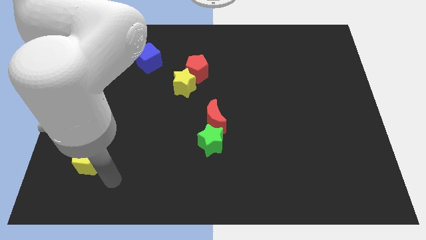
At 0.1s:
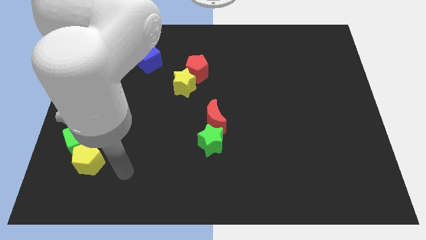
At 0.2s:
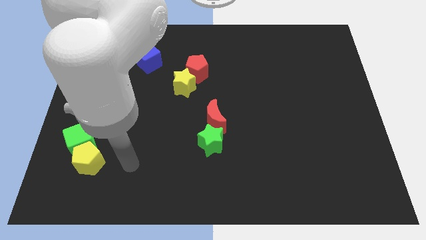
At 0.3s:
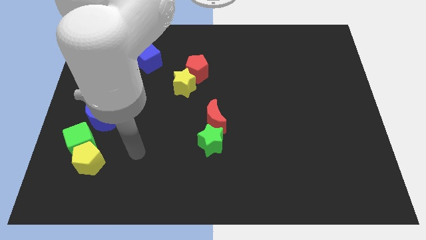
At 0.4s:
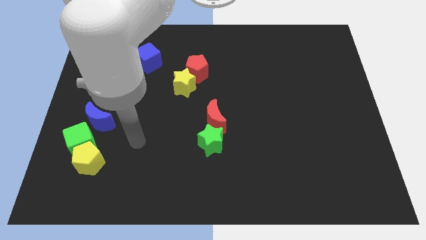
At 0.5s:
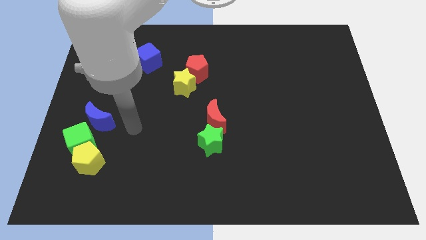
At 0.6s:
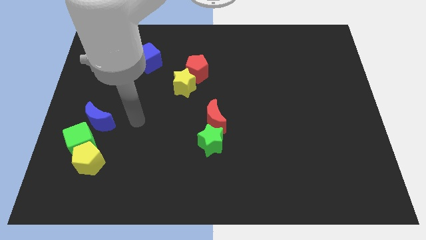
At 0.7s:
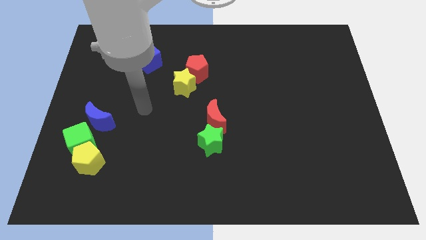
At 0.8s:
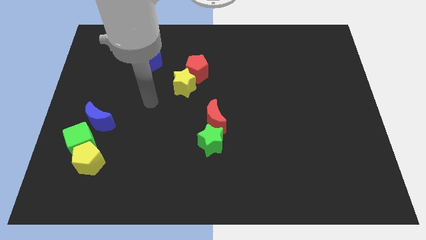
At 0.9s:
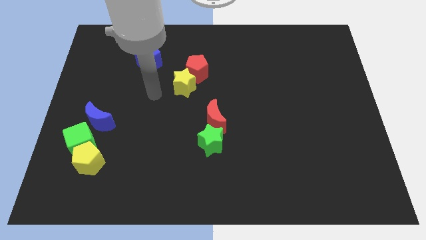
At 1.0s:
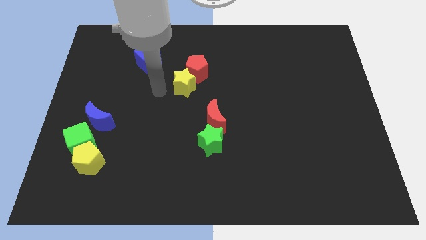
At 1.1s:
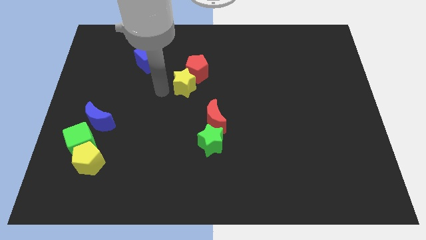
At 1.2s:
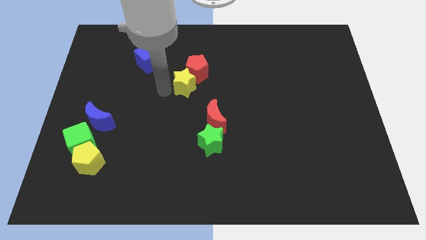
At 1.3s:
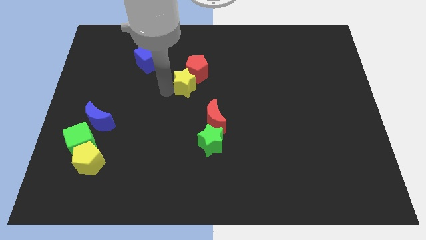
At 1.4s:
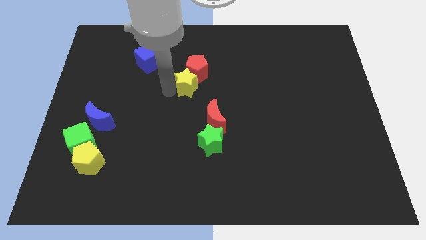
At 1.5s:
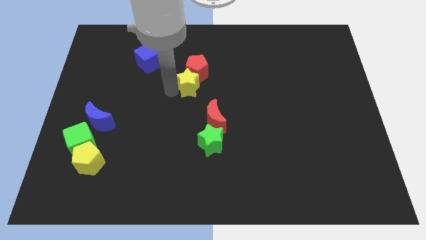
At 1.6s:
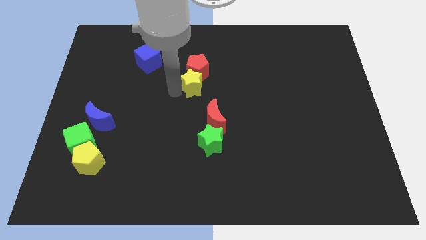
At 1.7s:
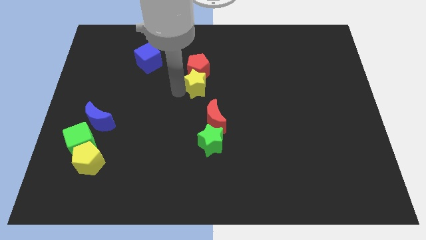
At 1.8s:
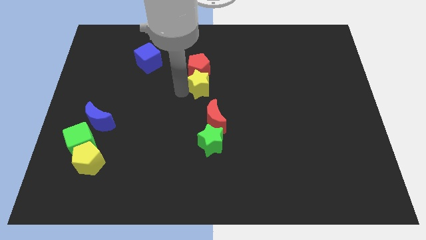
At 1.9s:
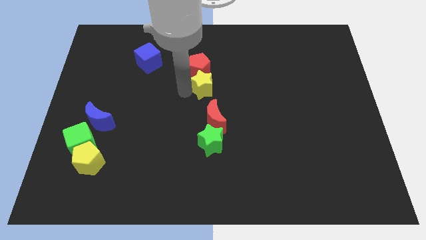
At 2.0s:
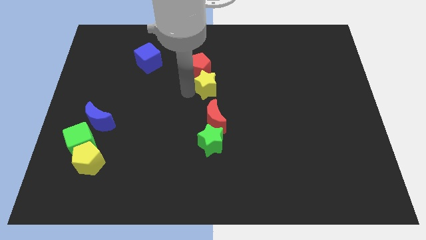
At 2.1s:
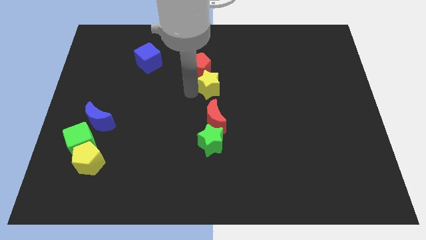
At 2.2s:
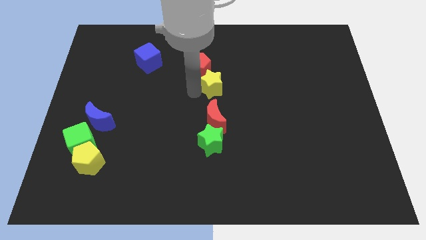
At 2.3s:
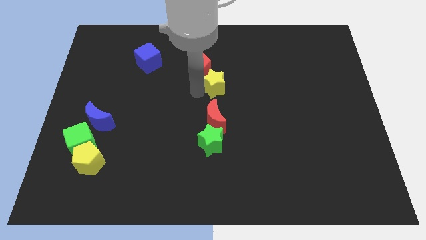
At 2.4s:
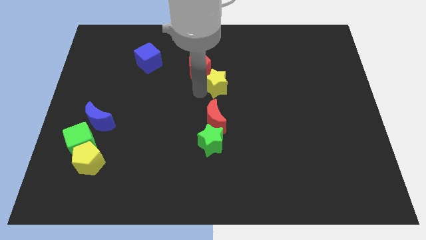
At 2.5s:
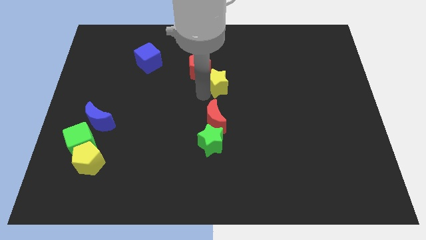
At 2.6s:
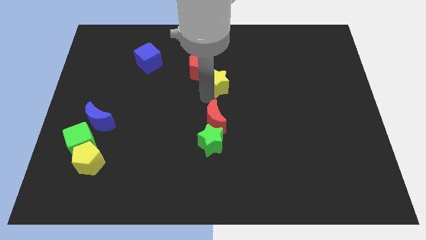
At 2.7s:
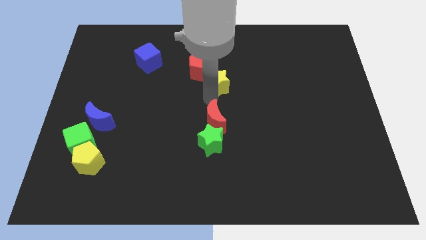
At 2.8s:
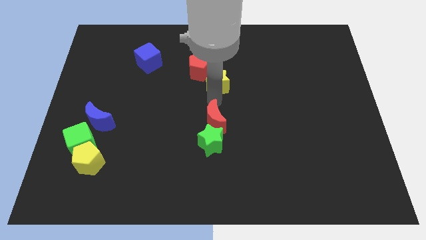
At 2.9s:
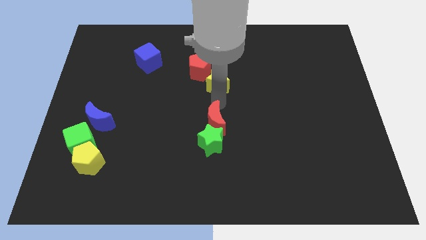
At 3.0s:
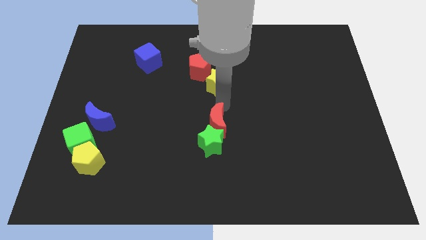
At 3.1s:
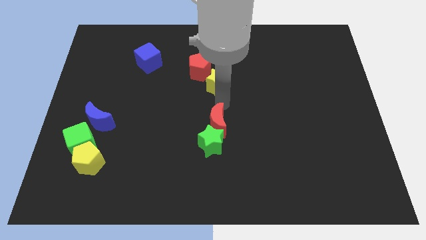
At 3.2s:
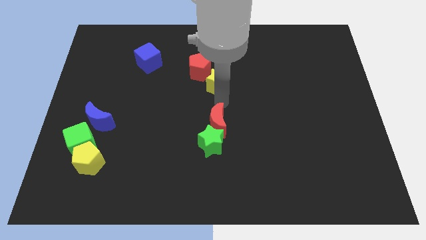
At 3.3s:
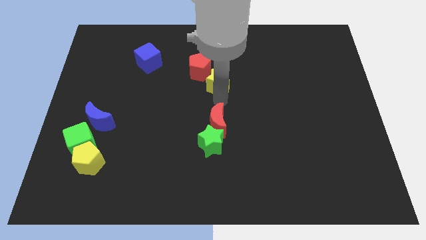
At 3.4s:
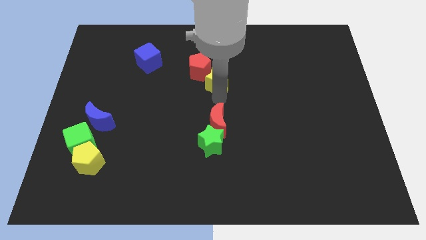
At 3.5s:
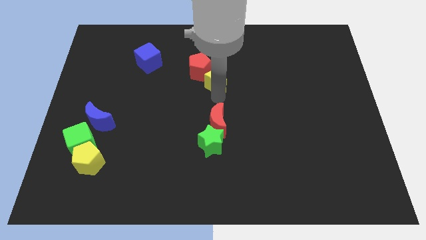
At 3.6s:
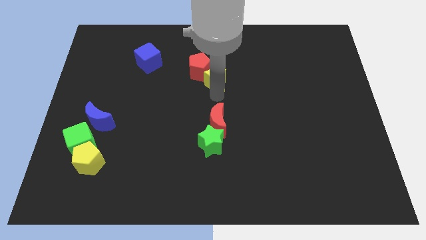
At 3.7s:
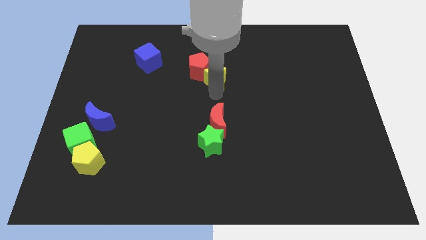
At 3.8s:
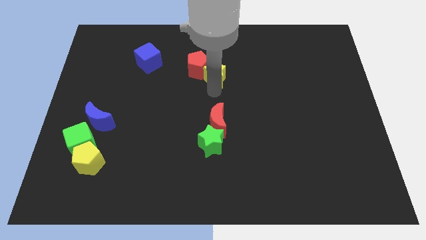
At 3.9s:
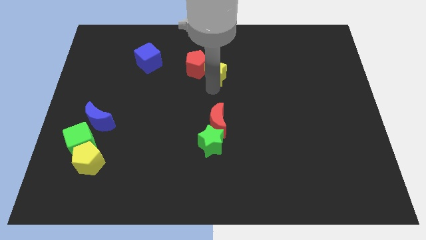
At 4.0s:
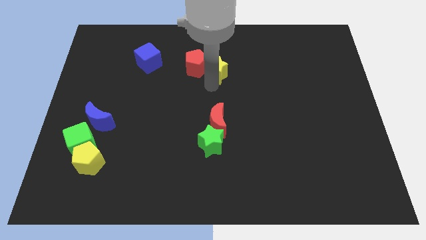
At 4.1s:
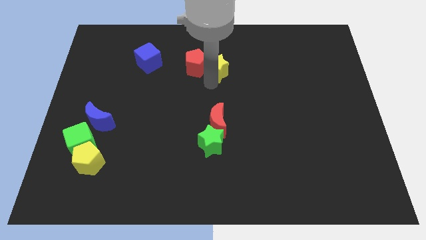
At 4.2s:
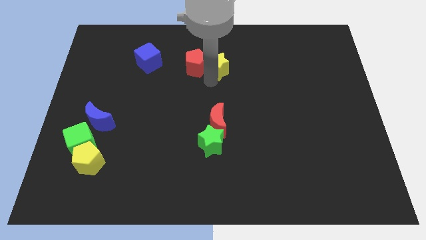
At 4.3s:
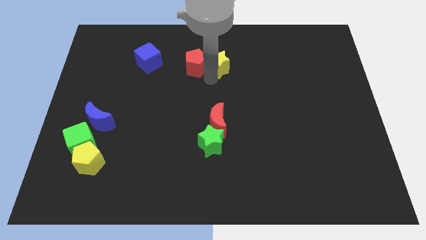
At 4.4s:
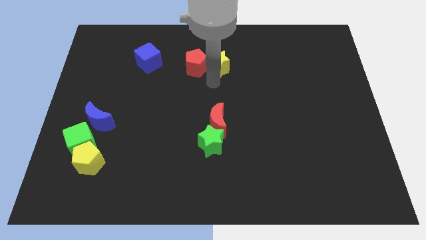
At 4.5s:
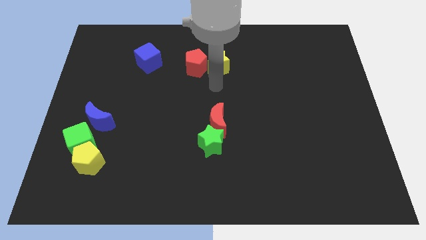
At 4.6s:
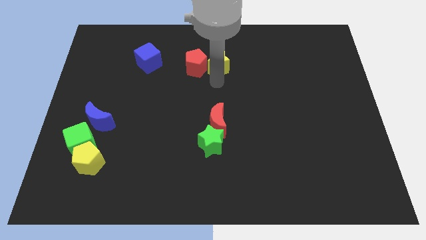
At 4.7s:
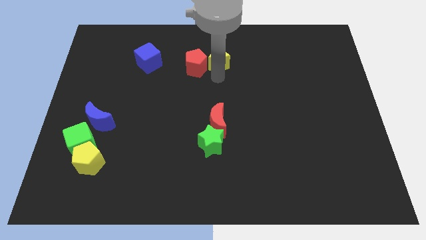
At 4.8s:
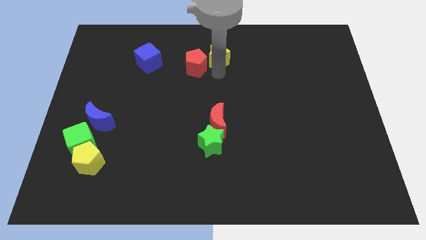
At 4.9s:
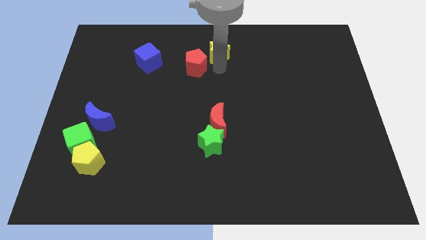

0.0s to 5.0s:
push the yellow star to the towards your base

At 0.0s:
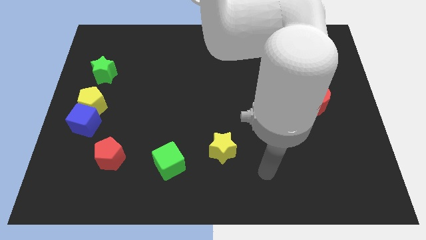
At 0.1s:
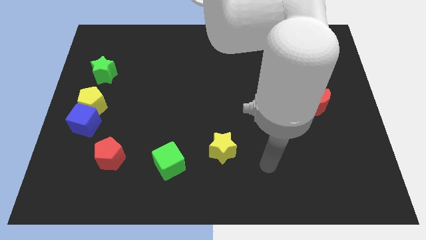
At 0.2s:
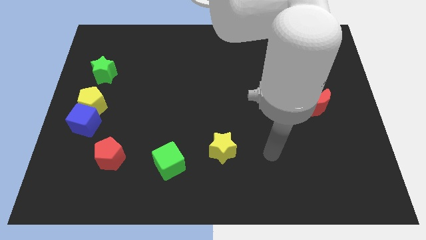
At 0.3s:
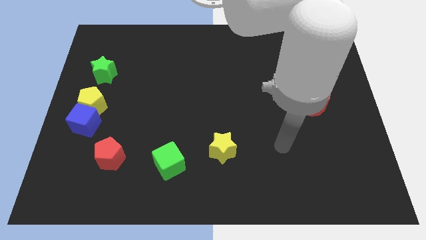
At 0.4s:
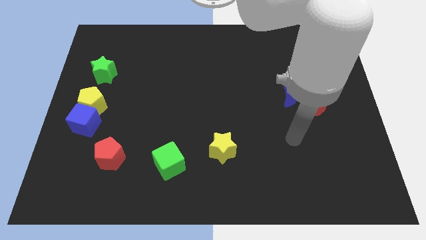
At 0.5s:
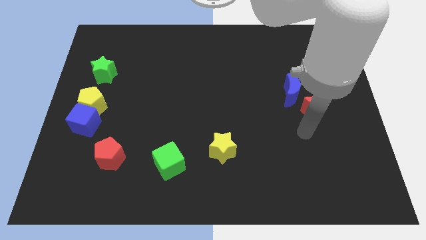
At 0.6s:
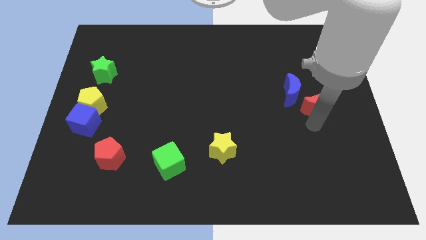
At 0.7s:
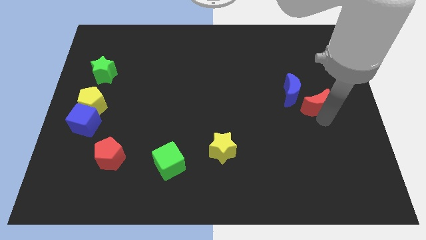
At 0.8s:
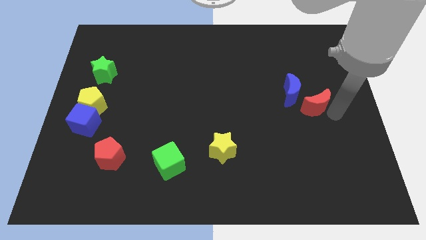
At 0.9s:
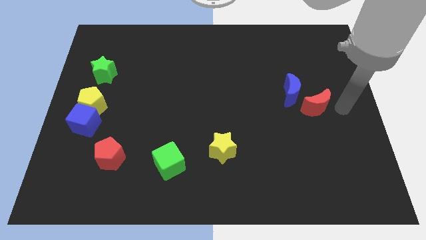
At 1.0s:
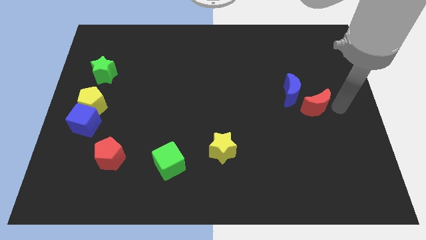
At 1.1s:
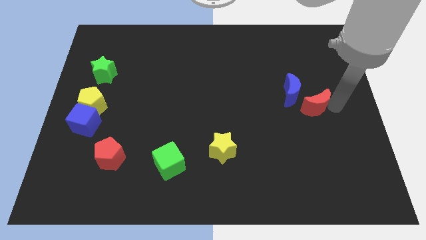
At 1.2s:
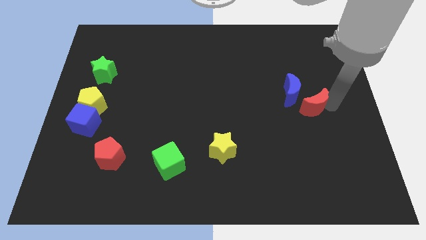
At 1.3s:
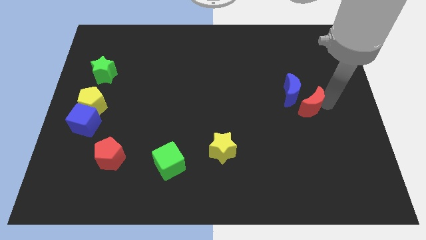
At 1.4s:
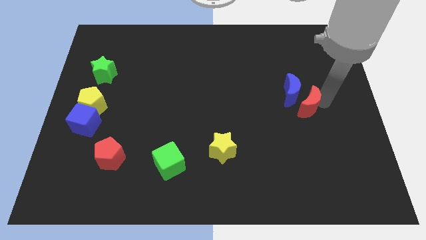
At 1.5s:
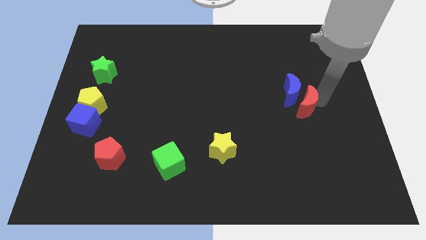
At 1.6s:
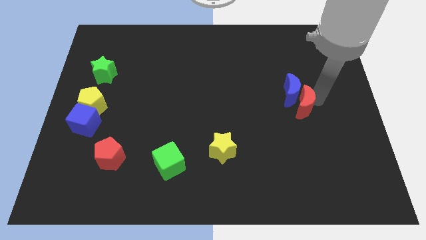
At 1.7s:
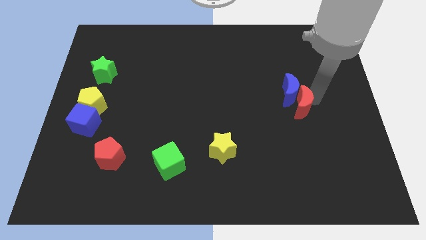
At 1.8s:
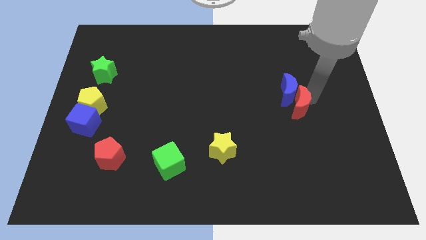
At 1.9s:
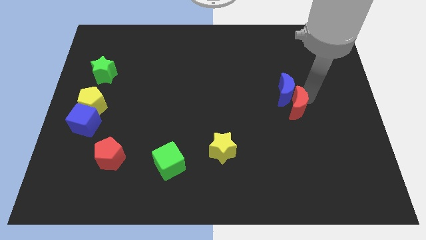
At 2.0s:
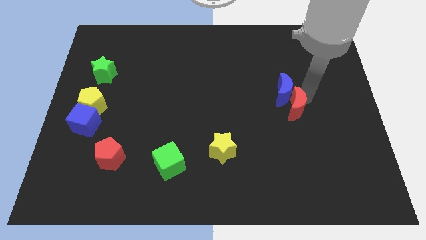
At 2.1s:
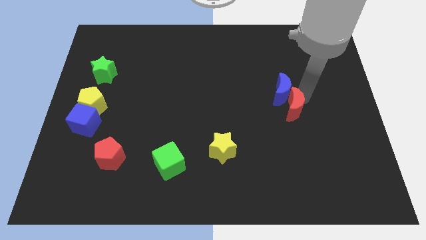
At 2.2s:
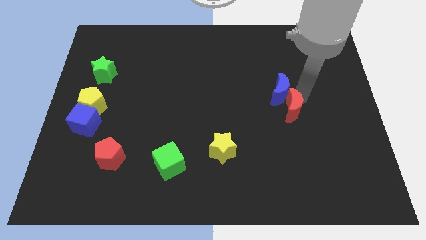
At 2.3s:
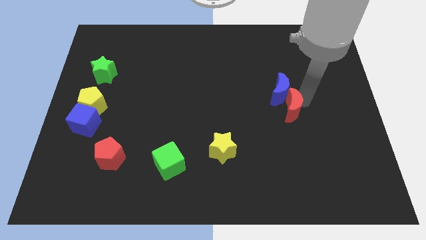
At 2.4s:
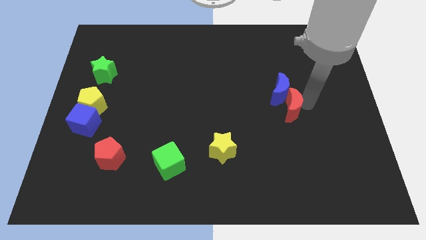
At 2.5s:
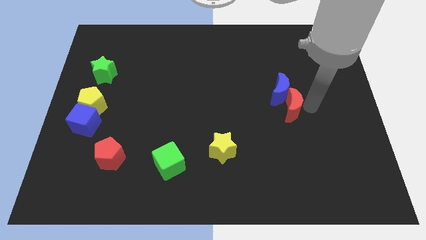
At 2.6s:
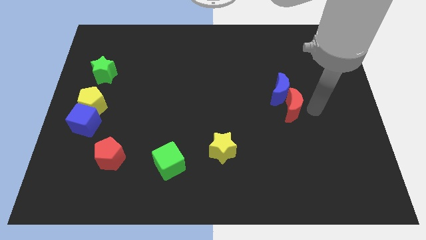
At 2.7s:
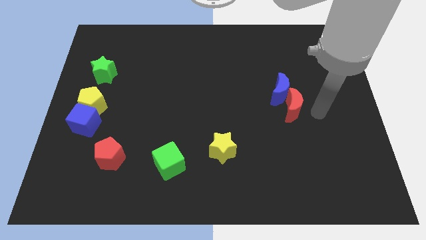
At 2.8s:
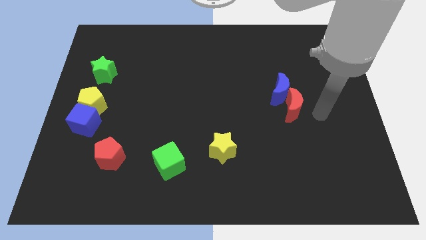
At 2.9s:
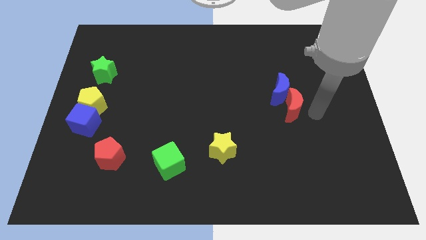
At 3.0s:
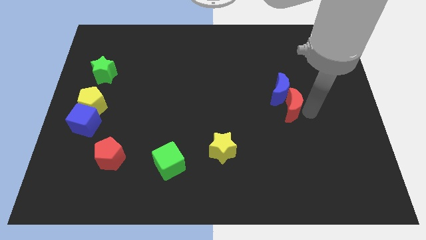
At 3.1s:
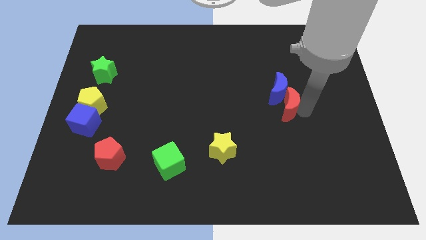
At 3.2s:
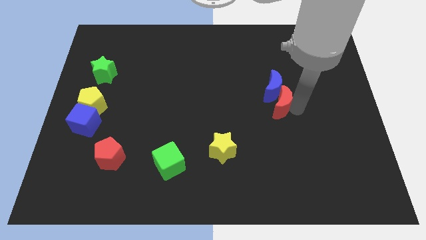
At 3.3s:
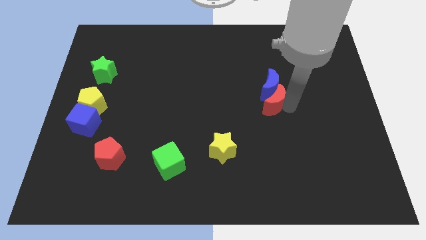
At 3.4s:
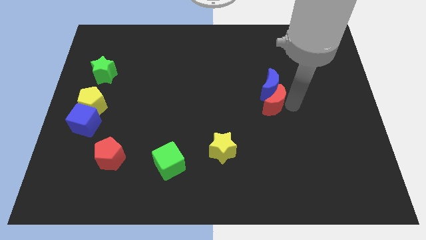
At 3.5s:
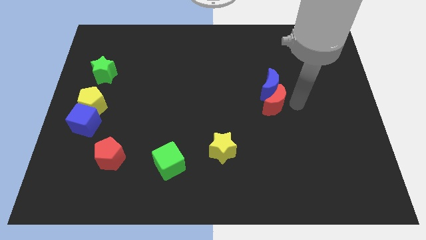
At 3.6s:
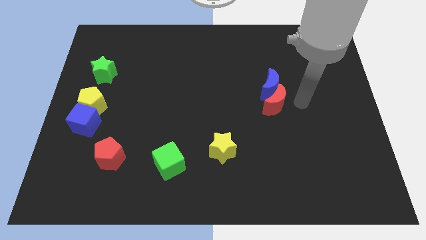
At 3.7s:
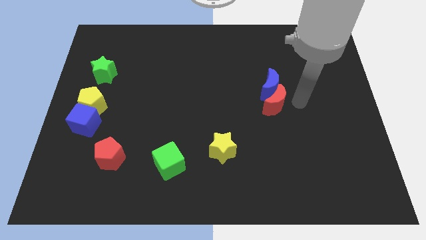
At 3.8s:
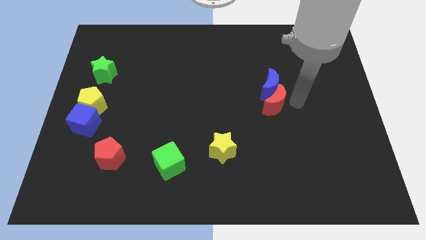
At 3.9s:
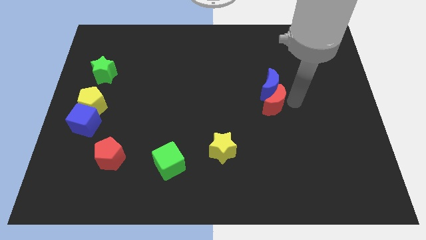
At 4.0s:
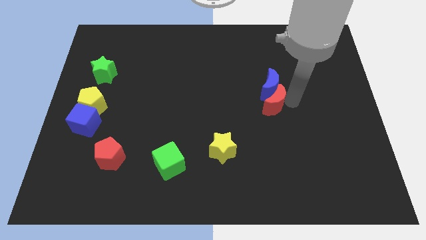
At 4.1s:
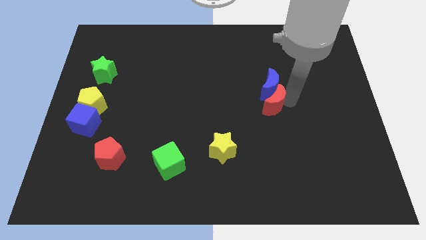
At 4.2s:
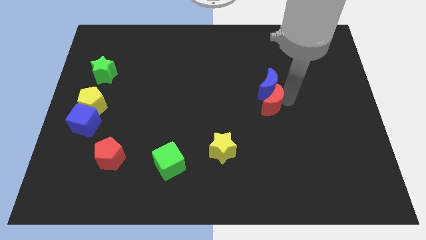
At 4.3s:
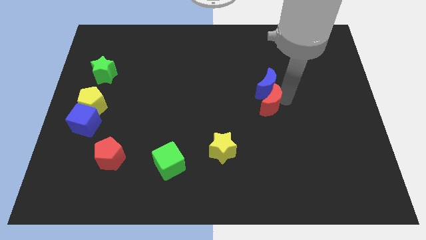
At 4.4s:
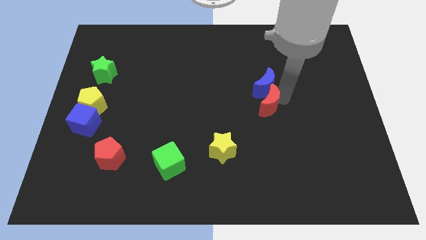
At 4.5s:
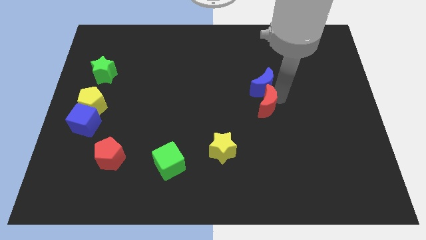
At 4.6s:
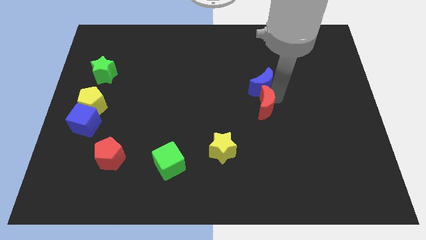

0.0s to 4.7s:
put the red moon to the middle
